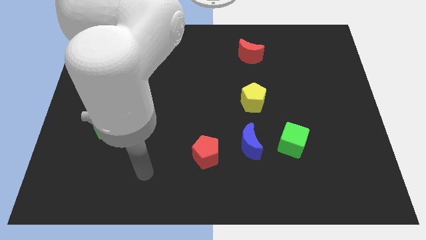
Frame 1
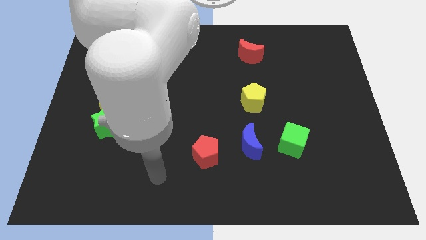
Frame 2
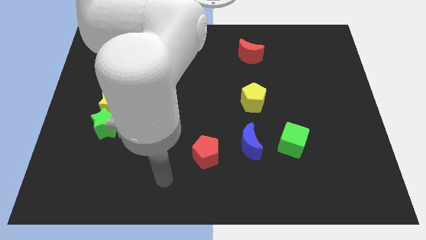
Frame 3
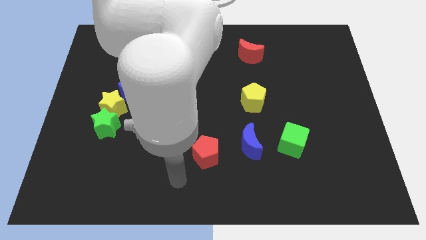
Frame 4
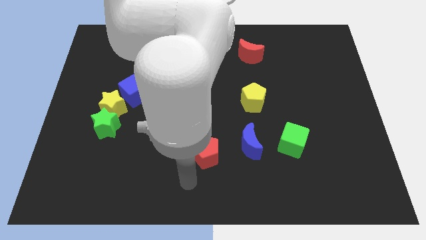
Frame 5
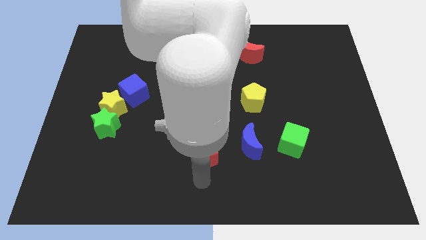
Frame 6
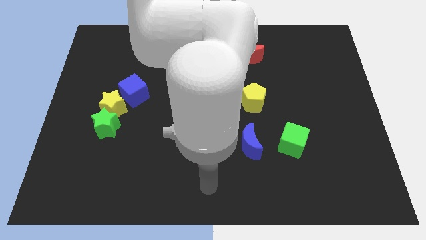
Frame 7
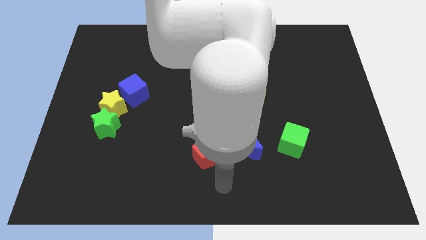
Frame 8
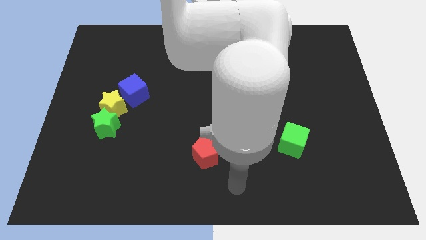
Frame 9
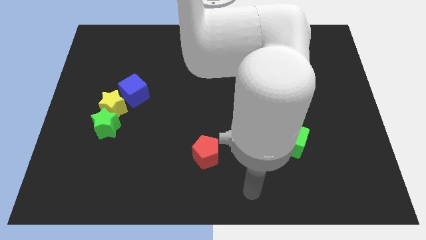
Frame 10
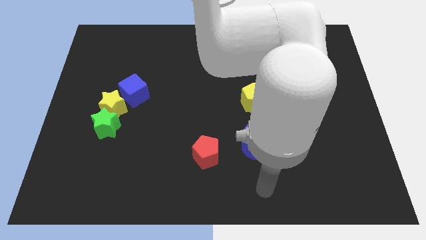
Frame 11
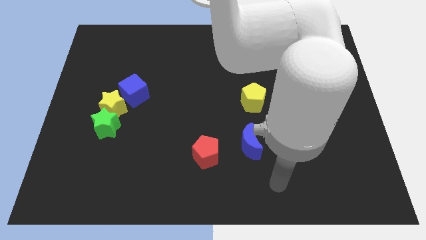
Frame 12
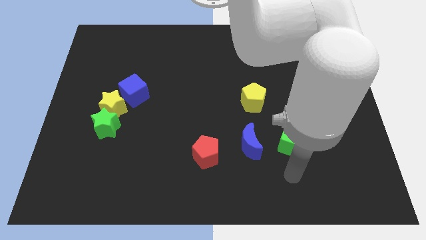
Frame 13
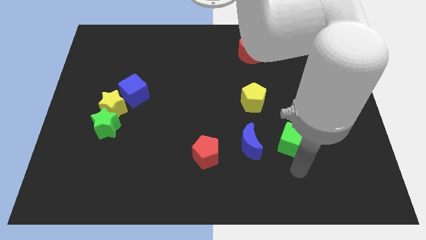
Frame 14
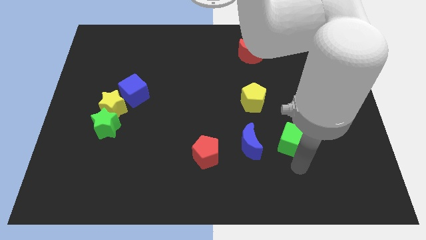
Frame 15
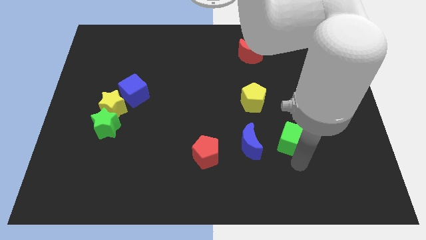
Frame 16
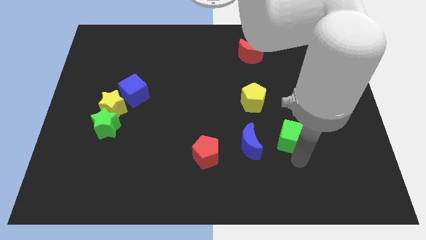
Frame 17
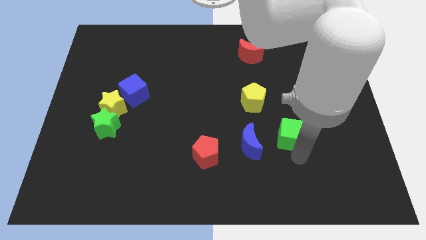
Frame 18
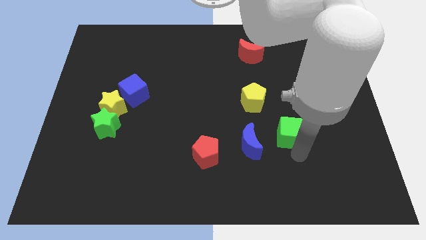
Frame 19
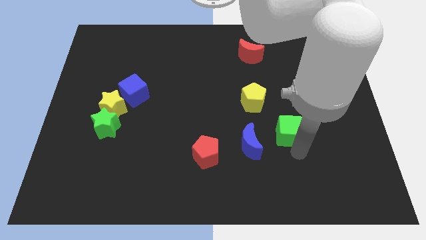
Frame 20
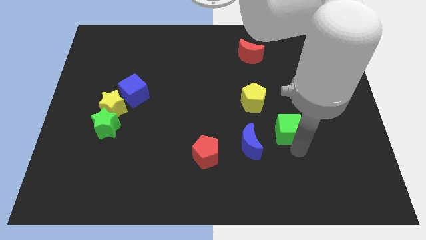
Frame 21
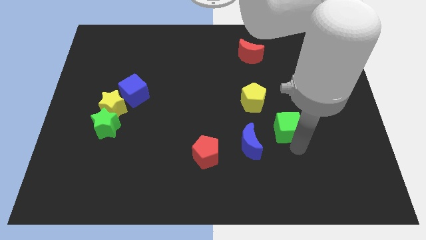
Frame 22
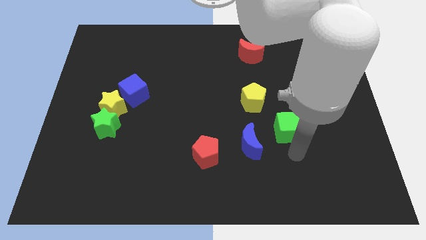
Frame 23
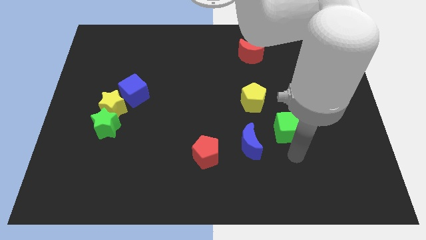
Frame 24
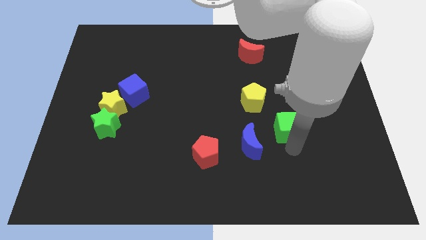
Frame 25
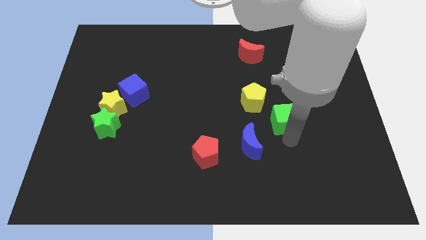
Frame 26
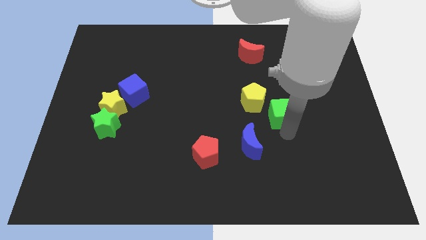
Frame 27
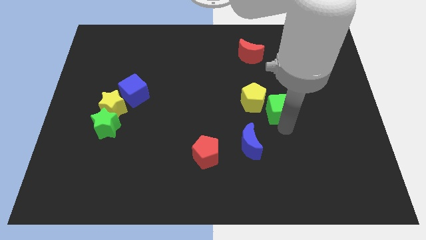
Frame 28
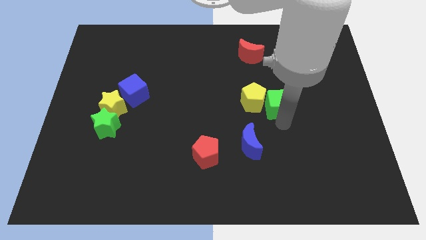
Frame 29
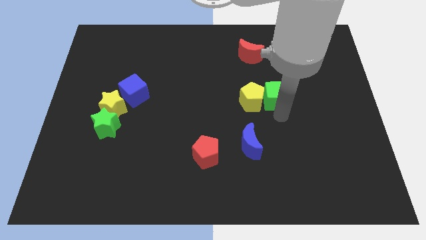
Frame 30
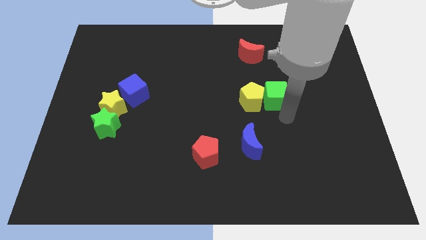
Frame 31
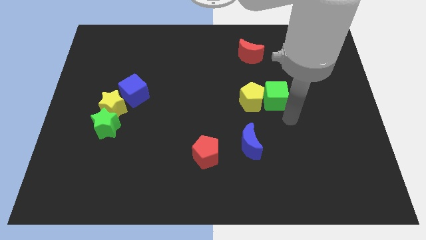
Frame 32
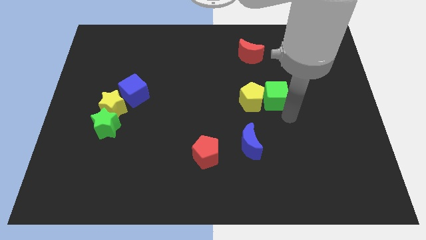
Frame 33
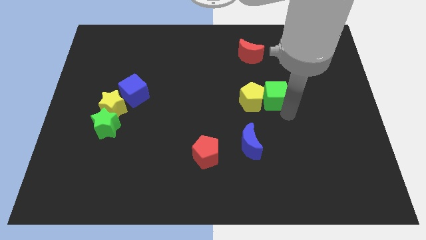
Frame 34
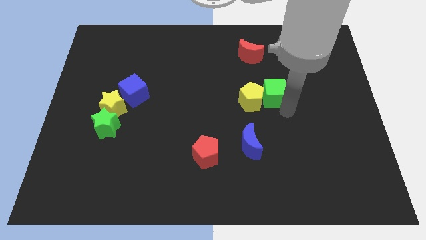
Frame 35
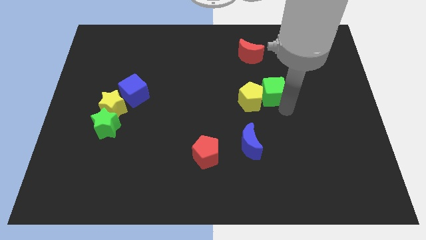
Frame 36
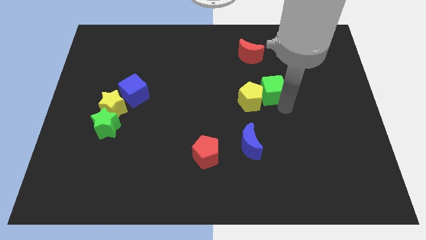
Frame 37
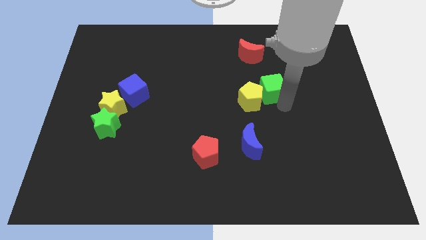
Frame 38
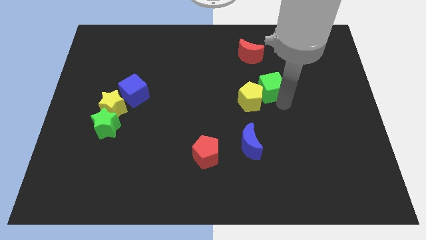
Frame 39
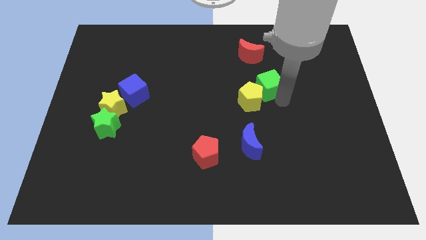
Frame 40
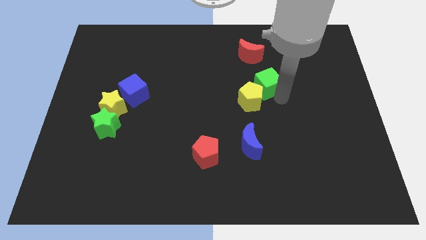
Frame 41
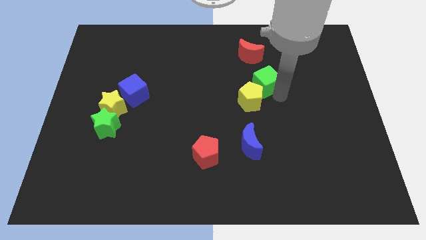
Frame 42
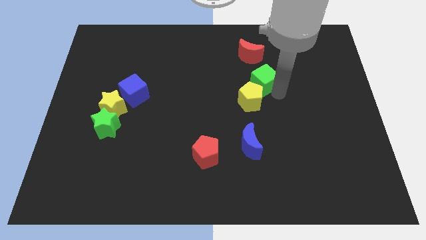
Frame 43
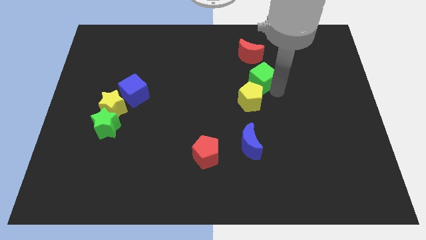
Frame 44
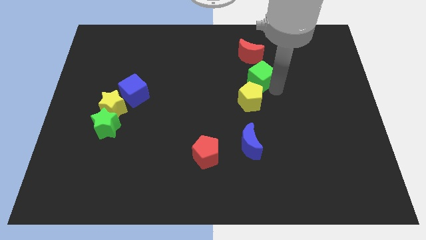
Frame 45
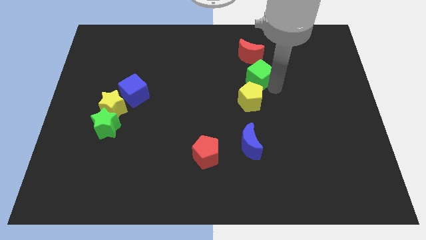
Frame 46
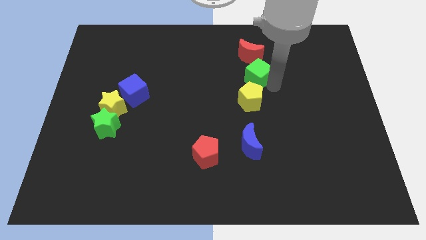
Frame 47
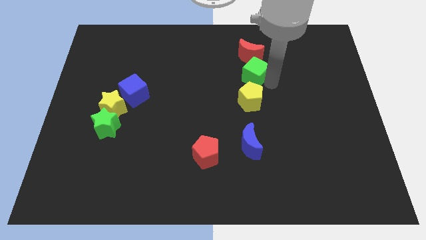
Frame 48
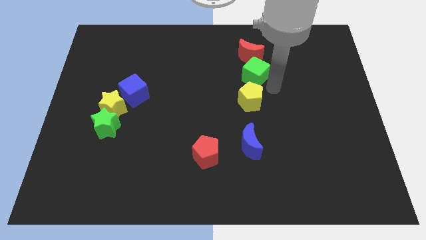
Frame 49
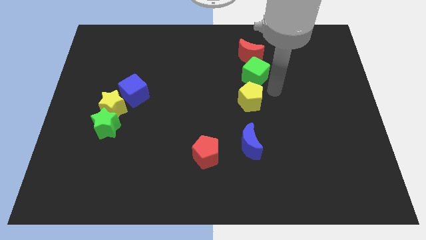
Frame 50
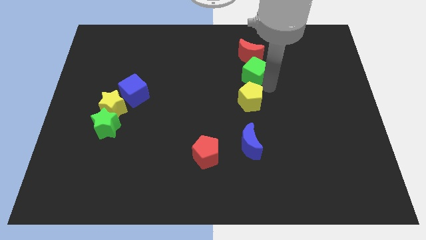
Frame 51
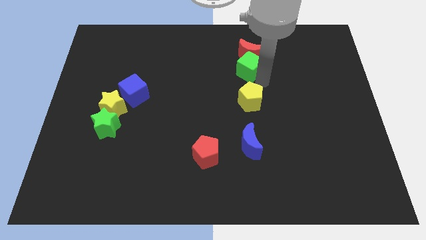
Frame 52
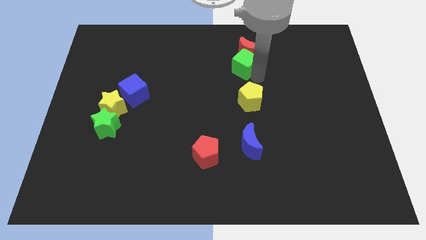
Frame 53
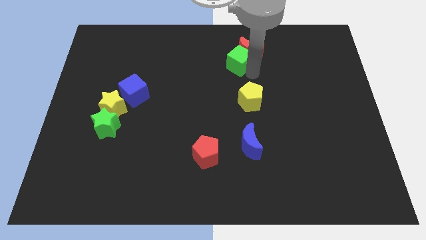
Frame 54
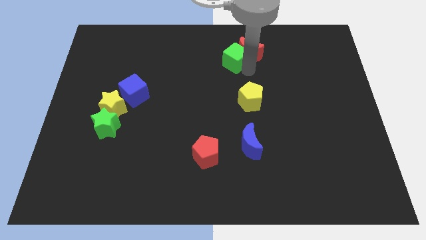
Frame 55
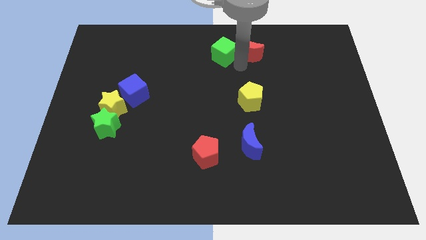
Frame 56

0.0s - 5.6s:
put the green cube to the towards your base

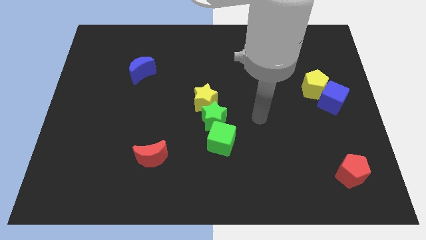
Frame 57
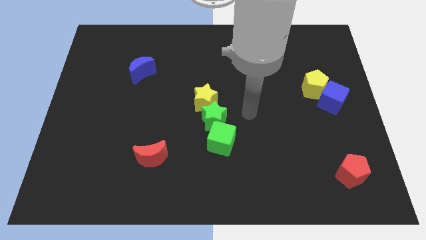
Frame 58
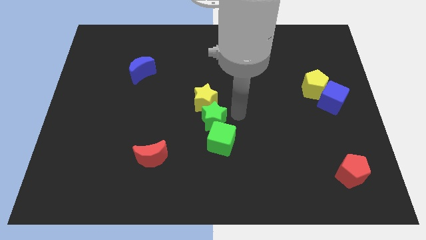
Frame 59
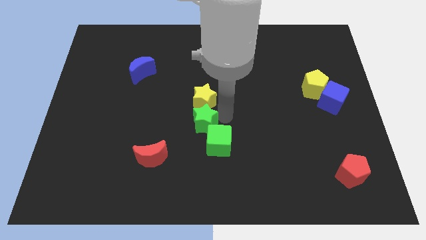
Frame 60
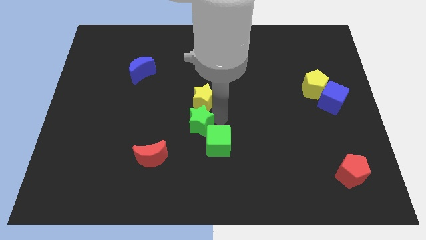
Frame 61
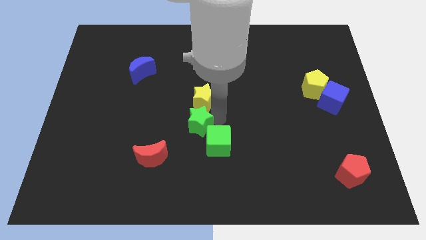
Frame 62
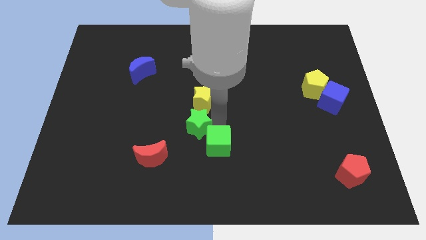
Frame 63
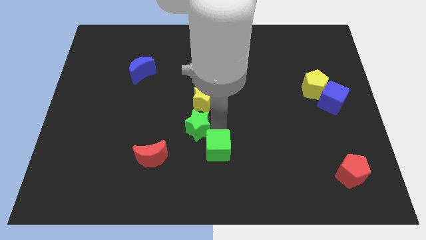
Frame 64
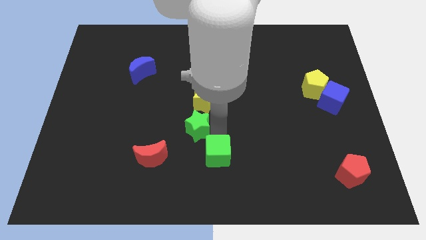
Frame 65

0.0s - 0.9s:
push the green cube to the bottom side
